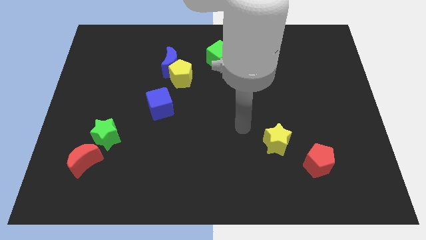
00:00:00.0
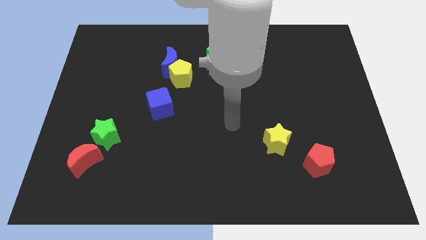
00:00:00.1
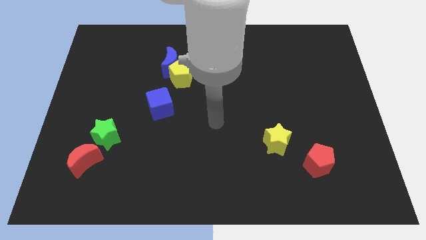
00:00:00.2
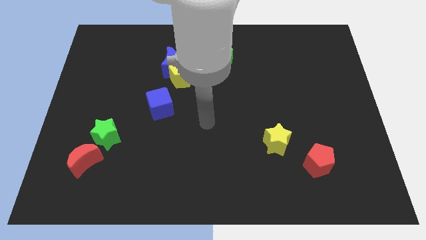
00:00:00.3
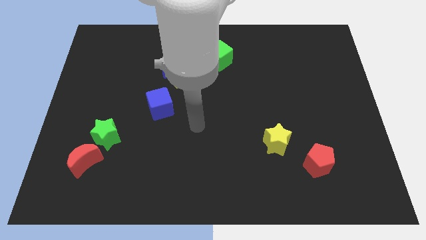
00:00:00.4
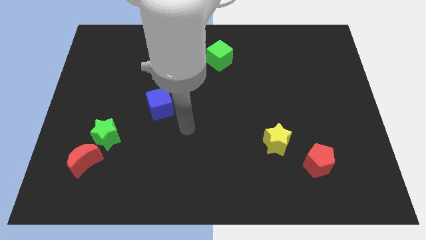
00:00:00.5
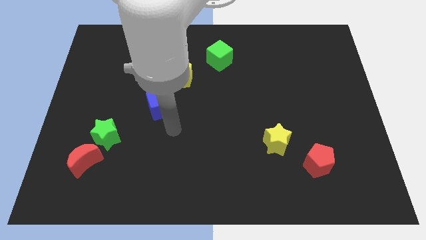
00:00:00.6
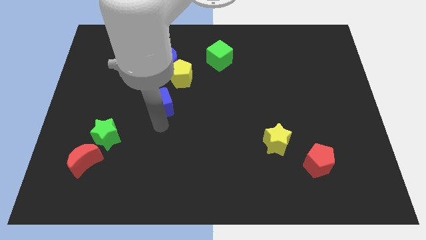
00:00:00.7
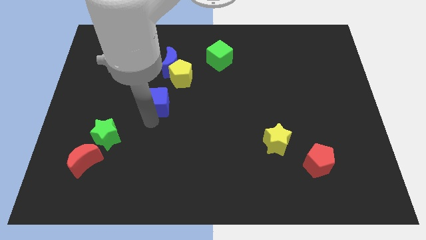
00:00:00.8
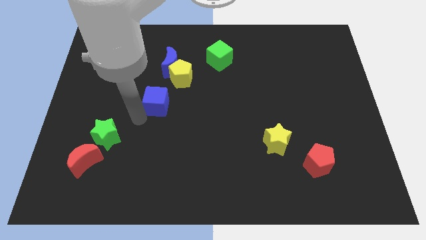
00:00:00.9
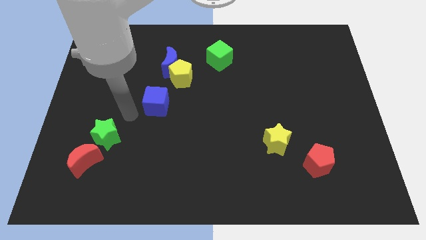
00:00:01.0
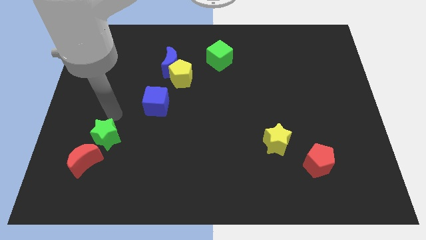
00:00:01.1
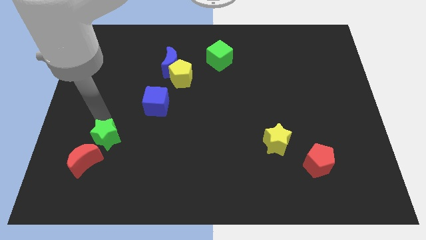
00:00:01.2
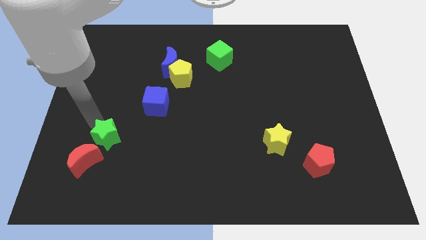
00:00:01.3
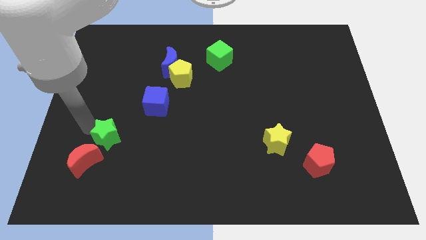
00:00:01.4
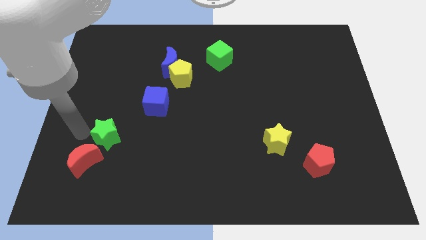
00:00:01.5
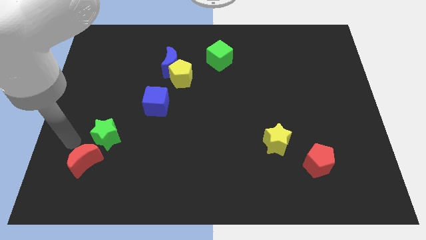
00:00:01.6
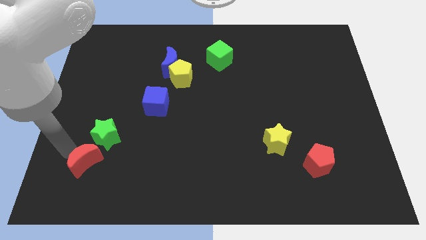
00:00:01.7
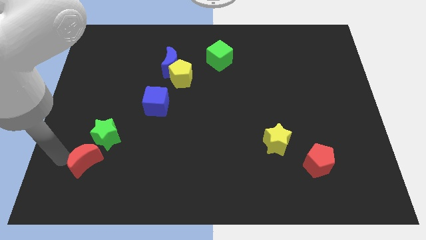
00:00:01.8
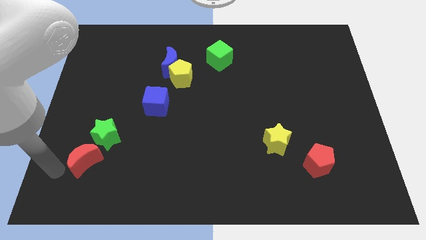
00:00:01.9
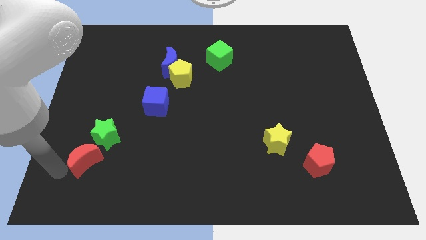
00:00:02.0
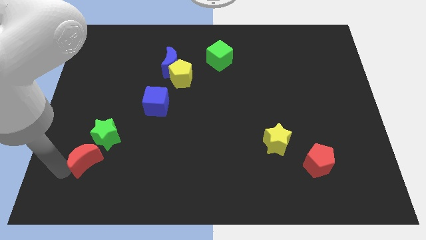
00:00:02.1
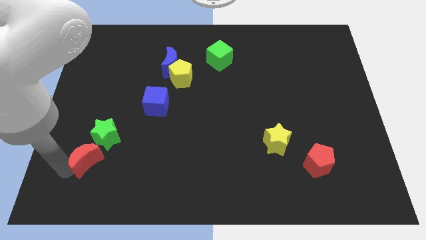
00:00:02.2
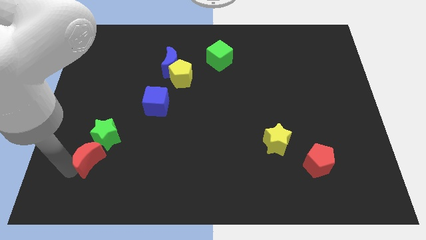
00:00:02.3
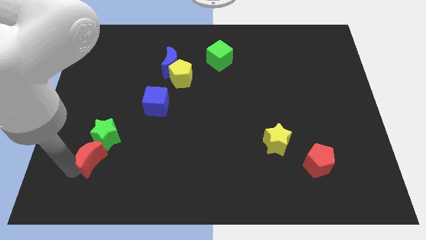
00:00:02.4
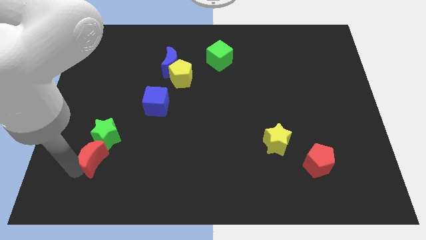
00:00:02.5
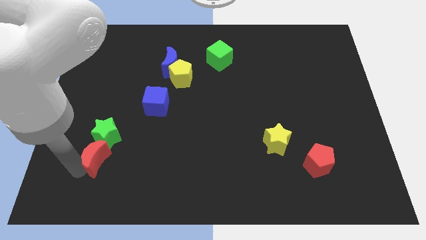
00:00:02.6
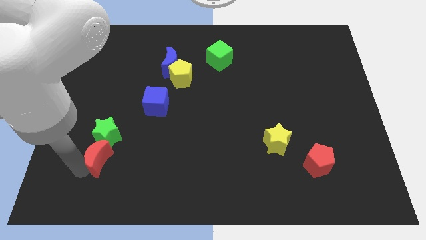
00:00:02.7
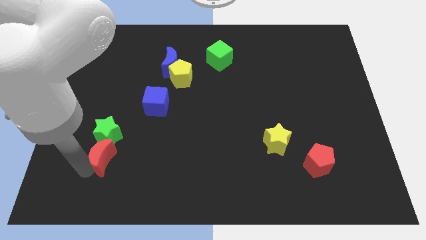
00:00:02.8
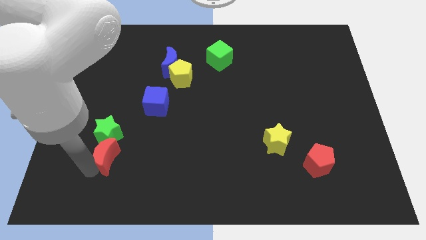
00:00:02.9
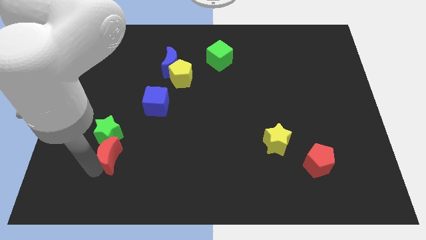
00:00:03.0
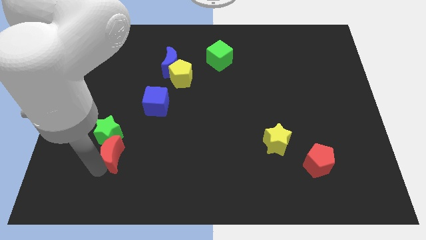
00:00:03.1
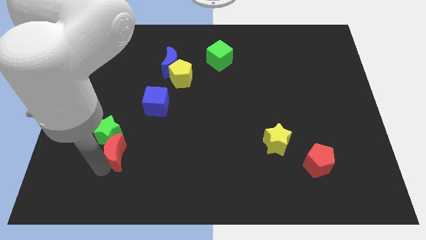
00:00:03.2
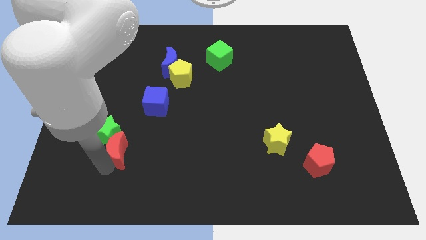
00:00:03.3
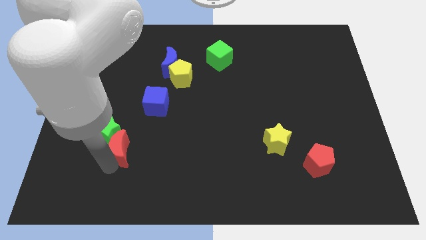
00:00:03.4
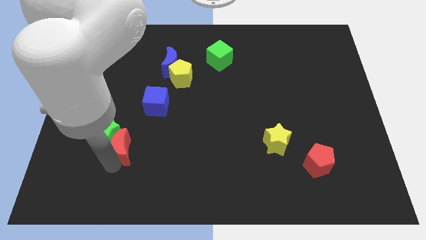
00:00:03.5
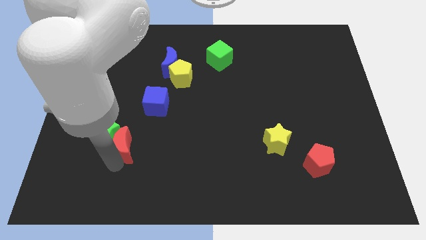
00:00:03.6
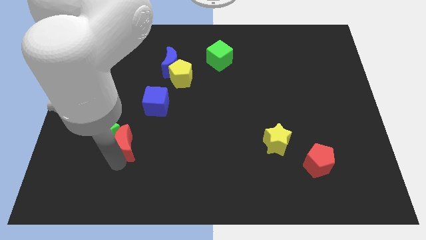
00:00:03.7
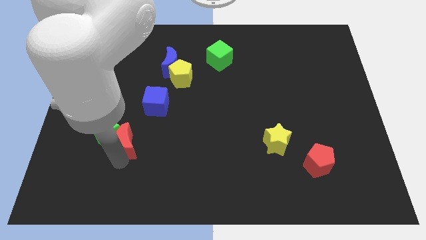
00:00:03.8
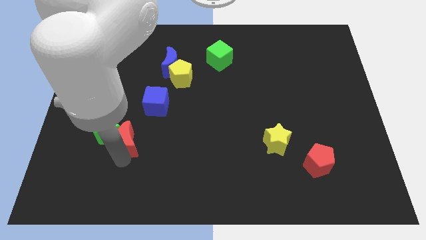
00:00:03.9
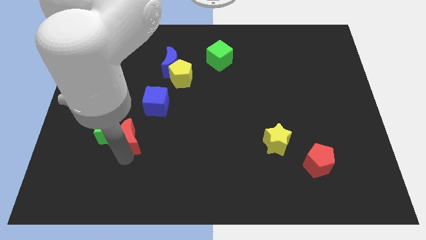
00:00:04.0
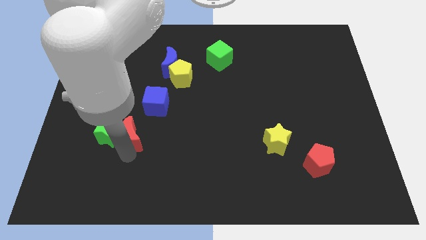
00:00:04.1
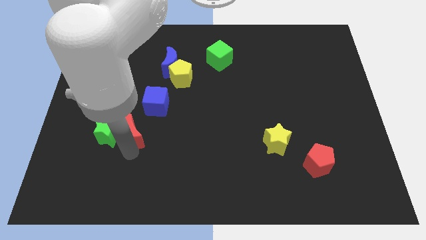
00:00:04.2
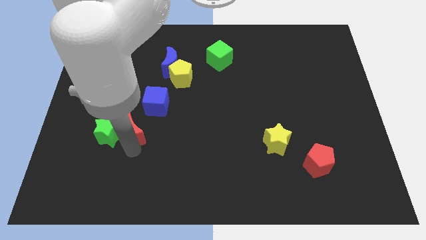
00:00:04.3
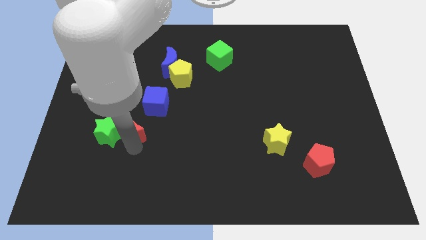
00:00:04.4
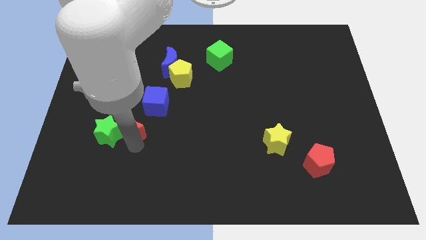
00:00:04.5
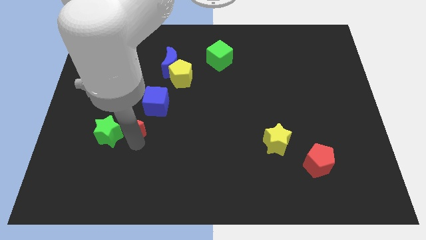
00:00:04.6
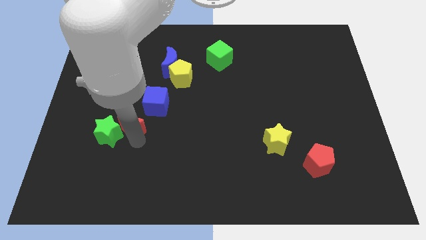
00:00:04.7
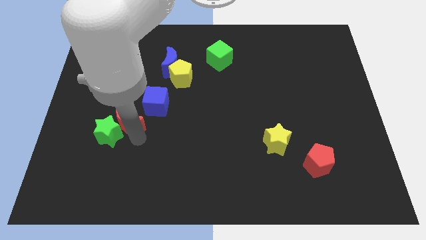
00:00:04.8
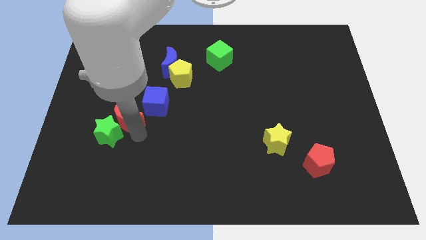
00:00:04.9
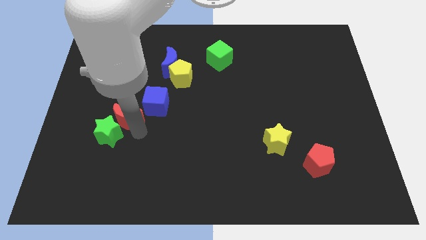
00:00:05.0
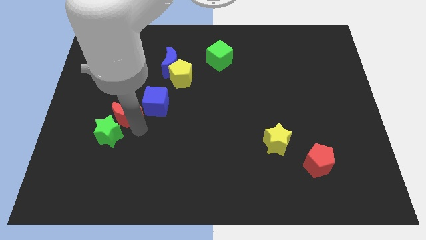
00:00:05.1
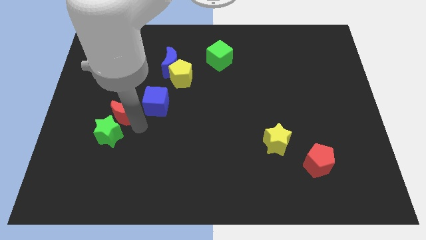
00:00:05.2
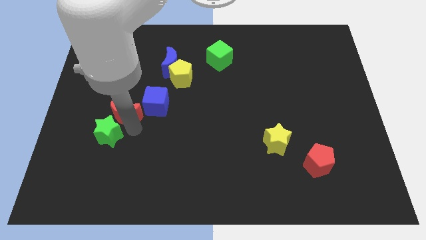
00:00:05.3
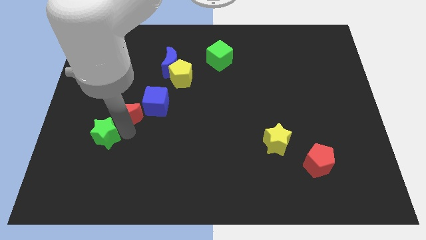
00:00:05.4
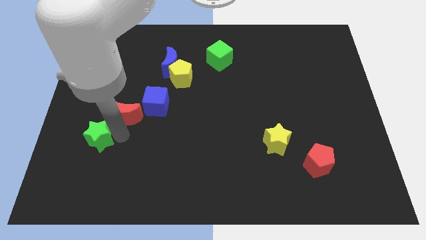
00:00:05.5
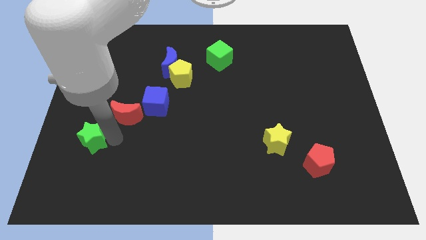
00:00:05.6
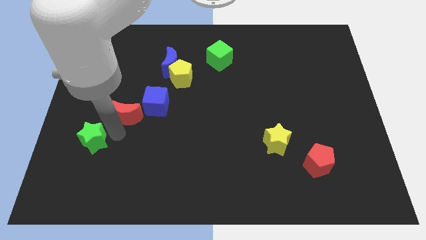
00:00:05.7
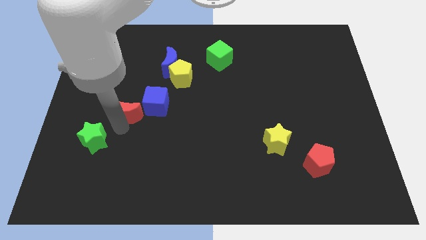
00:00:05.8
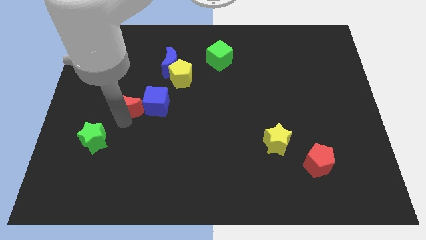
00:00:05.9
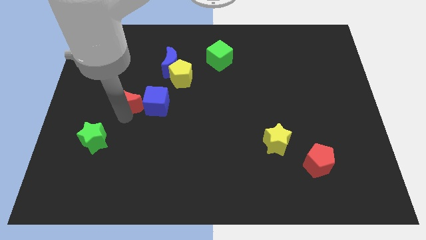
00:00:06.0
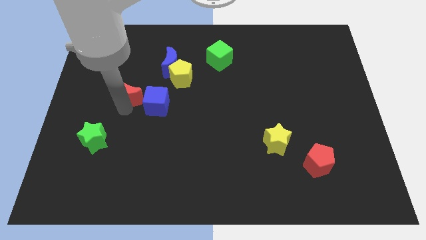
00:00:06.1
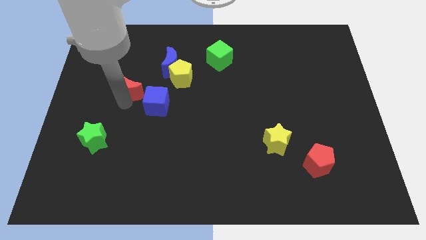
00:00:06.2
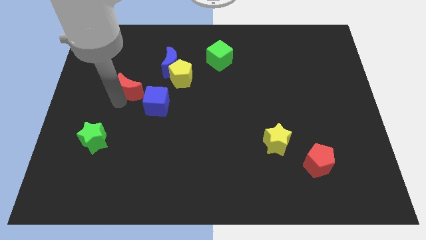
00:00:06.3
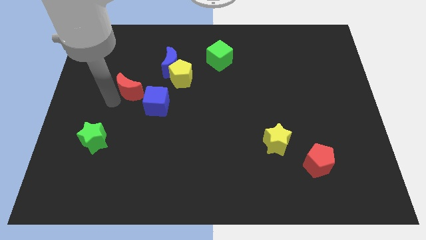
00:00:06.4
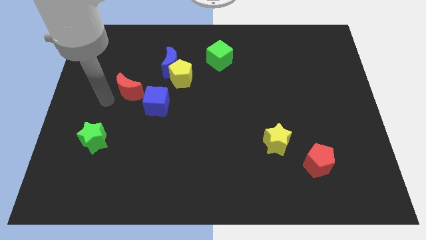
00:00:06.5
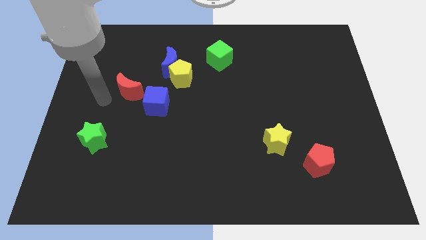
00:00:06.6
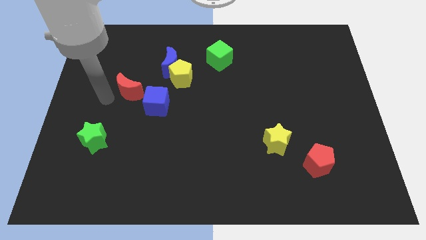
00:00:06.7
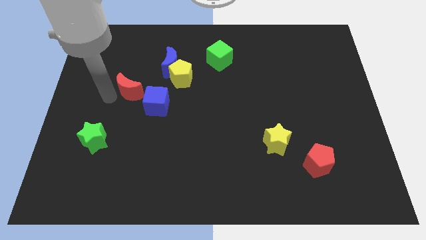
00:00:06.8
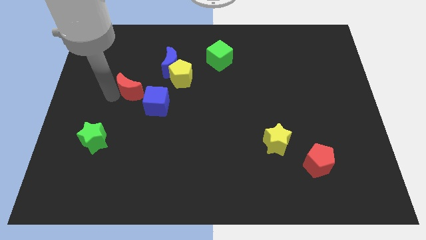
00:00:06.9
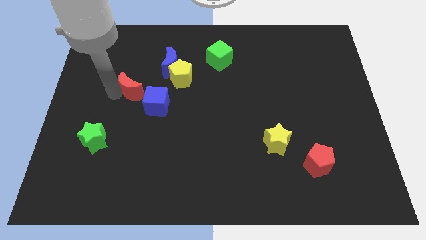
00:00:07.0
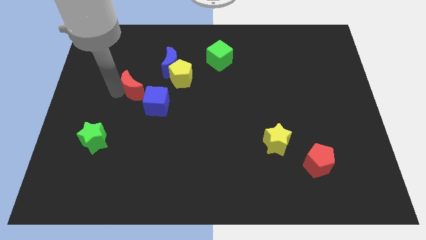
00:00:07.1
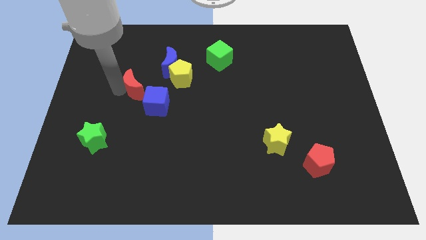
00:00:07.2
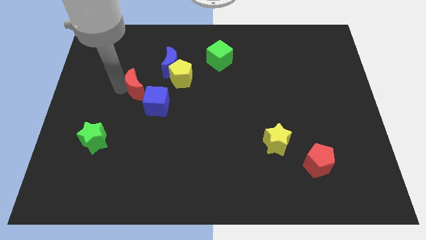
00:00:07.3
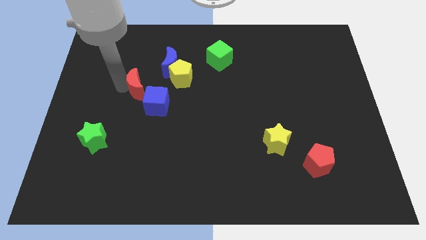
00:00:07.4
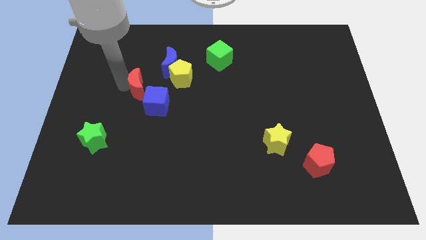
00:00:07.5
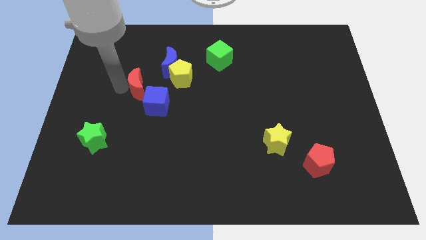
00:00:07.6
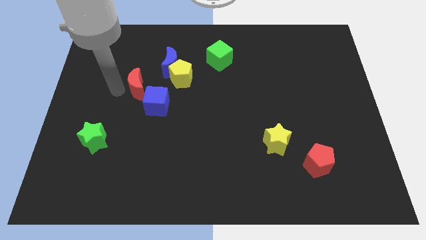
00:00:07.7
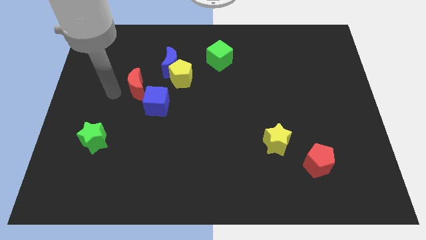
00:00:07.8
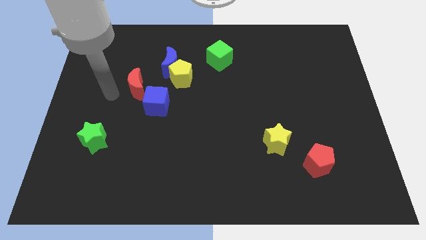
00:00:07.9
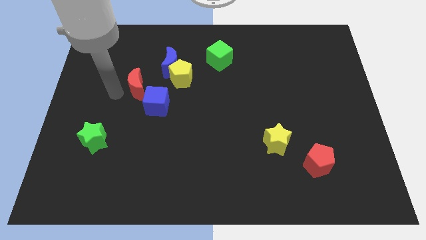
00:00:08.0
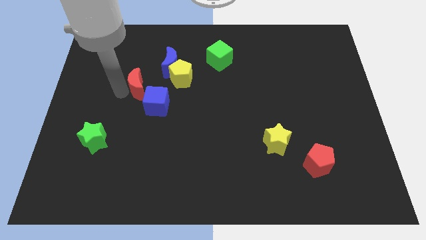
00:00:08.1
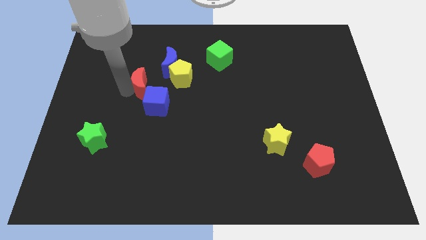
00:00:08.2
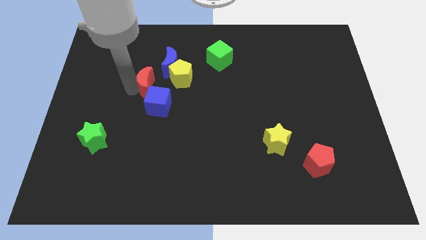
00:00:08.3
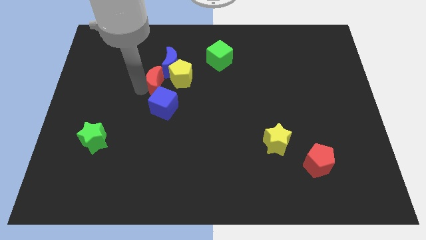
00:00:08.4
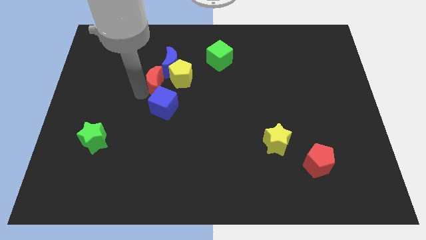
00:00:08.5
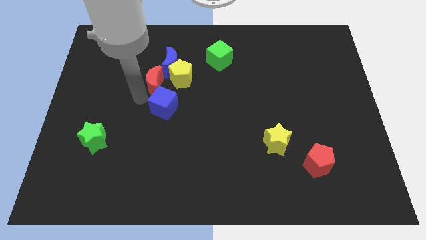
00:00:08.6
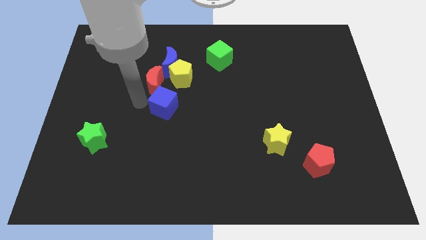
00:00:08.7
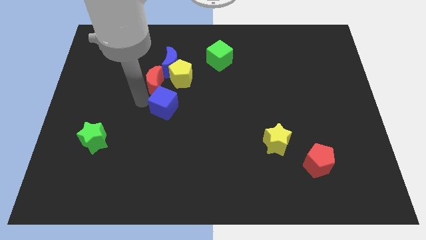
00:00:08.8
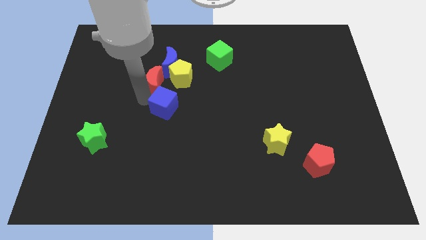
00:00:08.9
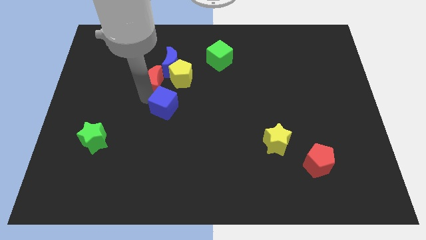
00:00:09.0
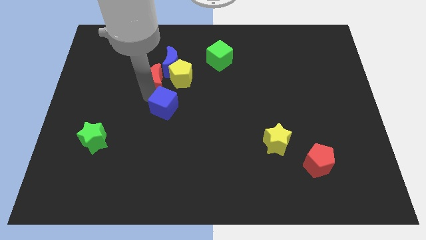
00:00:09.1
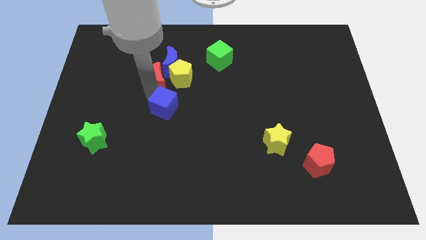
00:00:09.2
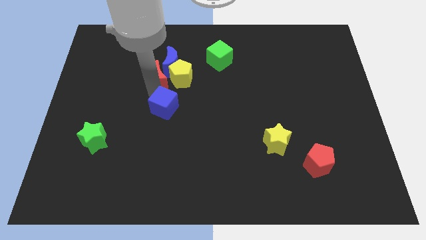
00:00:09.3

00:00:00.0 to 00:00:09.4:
slide the red moon towards the blue moon
